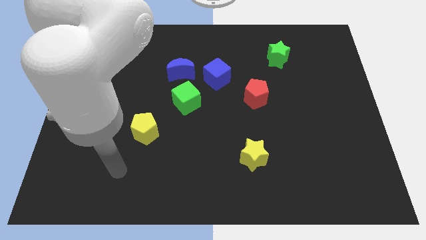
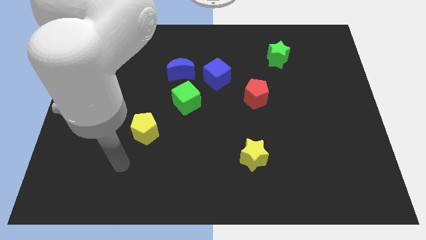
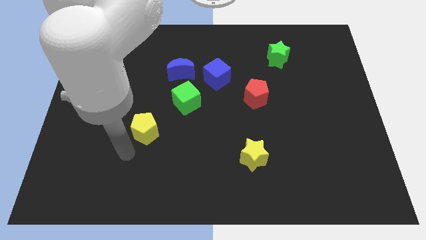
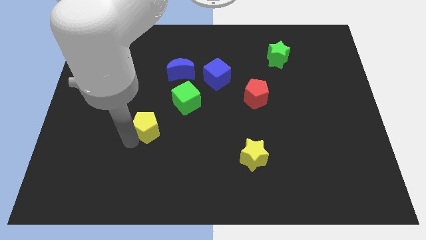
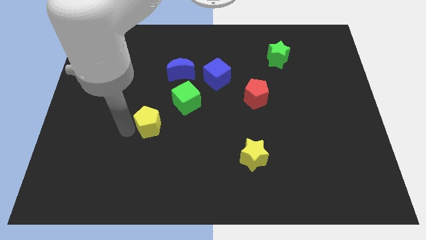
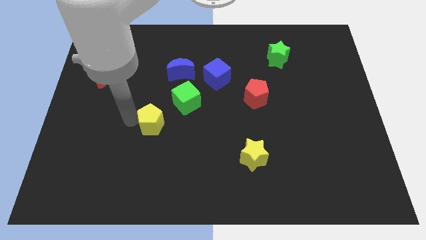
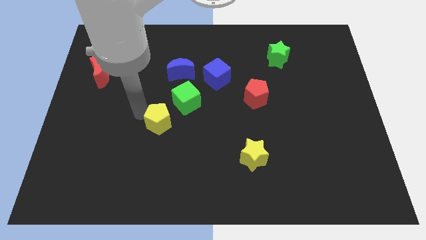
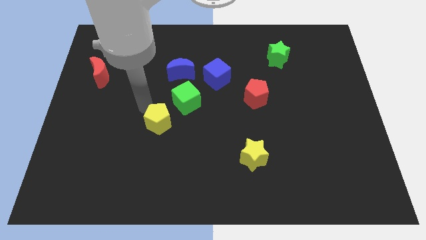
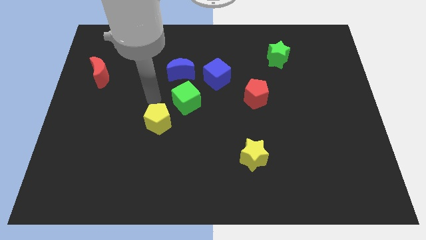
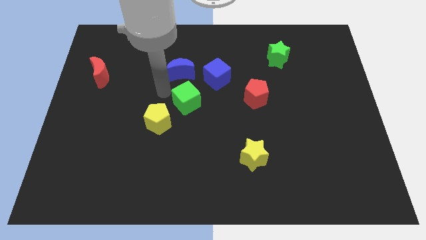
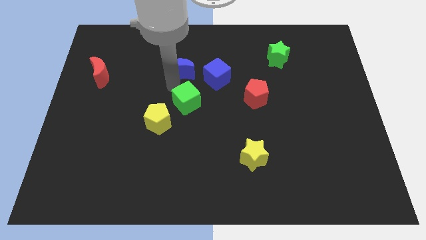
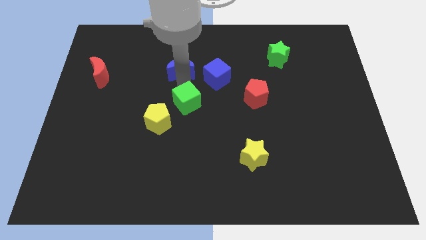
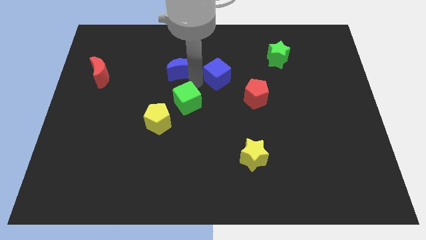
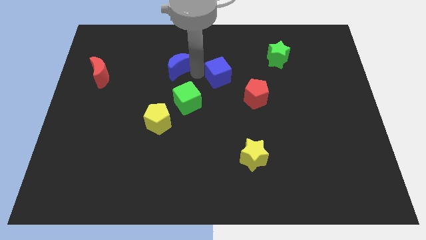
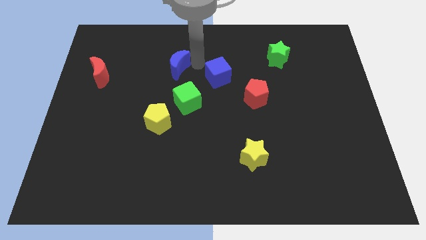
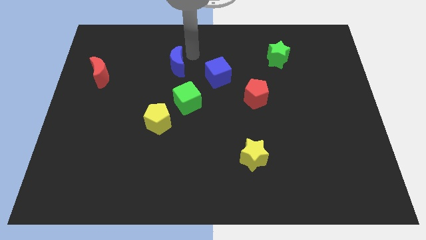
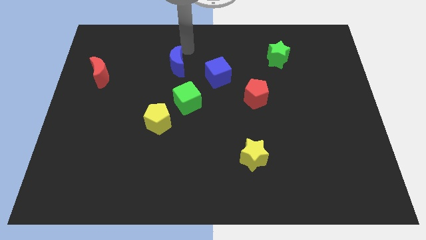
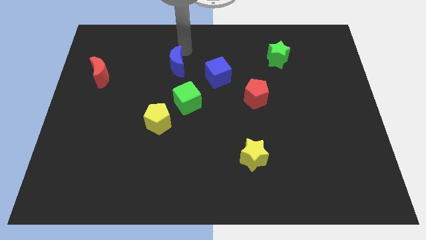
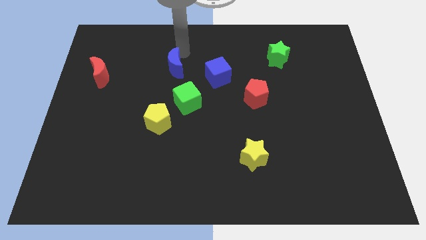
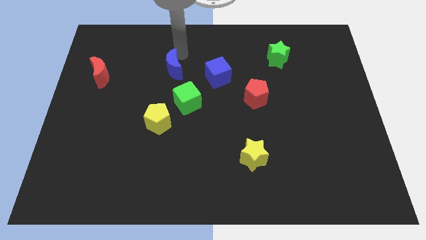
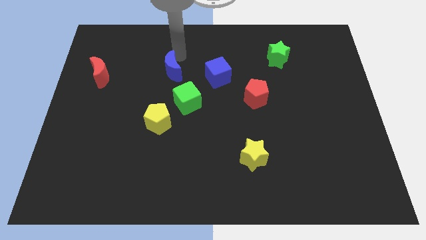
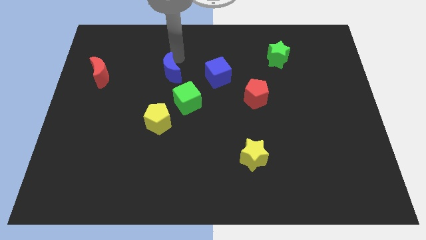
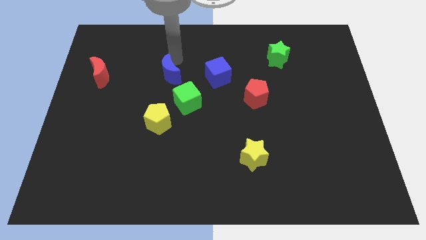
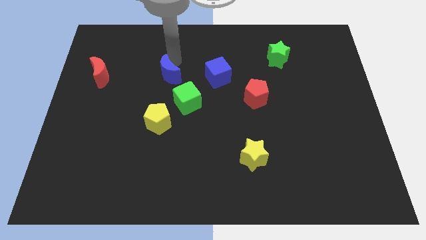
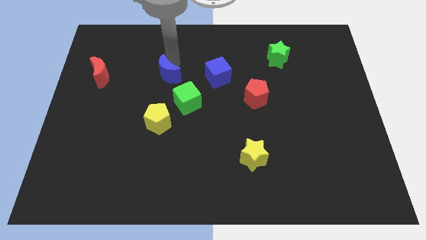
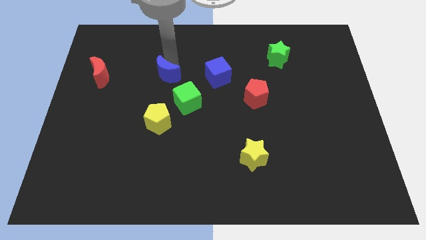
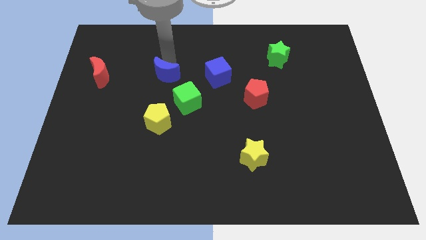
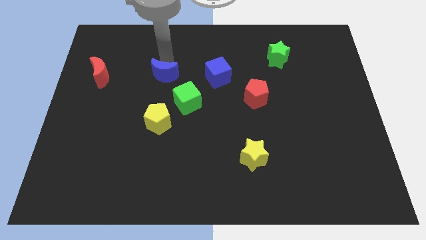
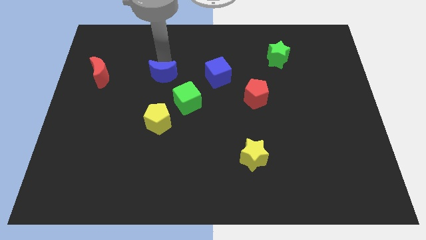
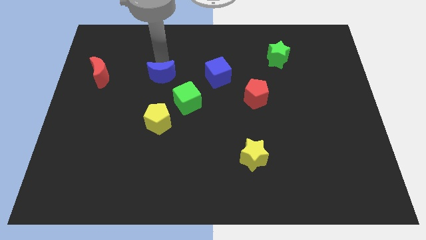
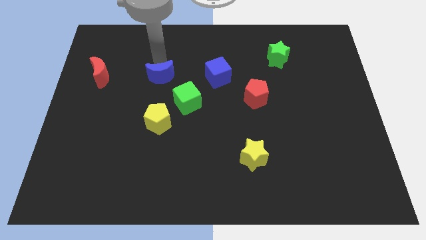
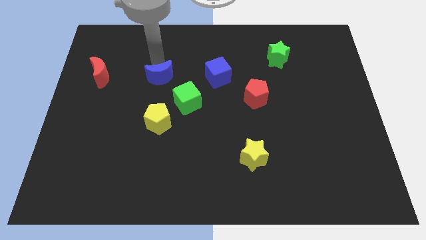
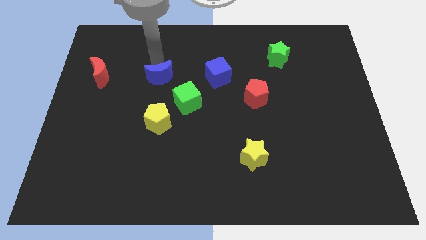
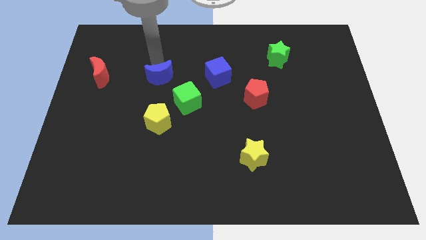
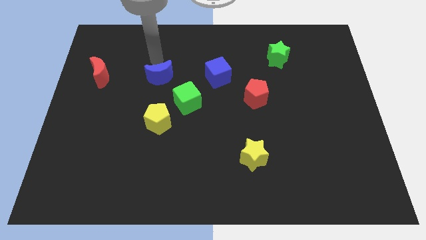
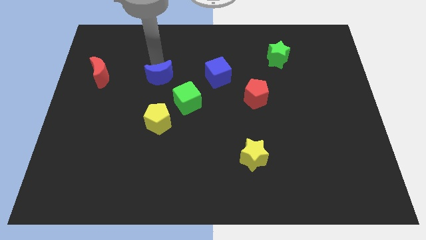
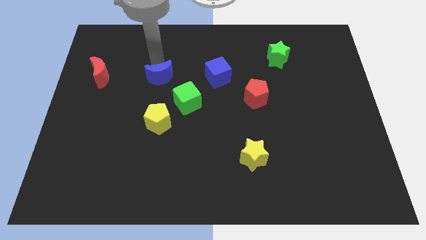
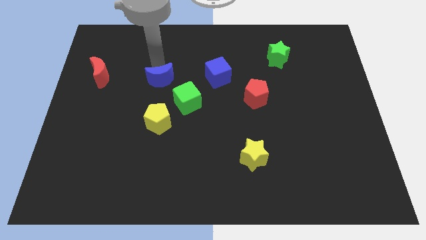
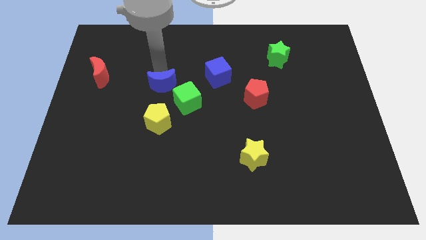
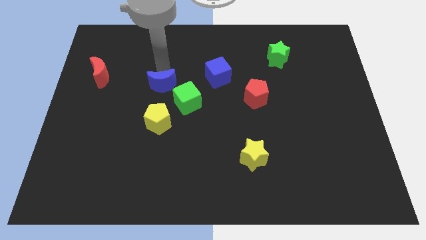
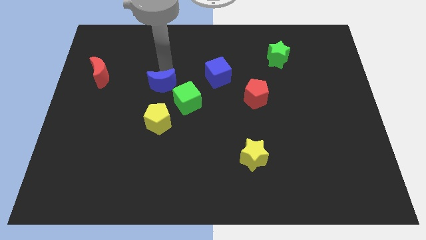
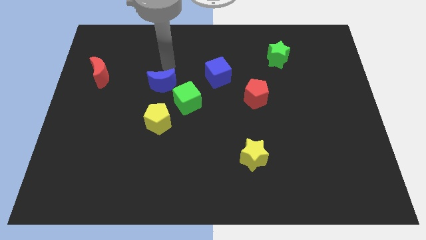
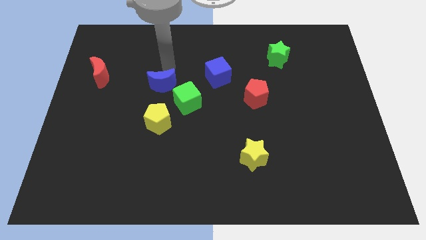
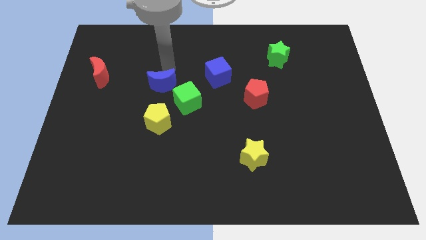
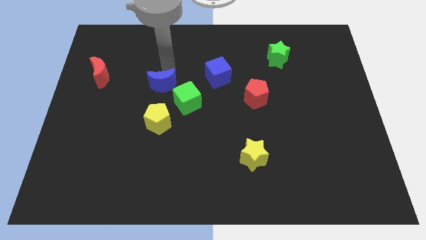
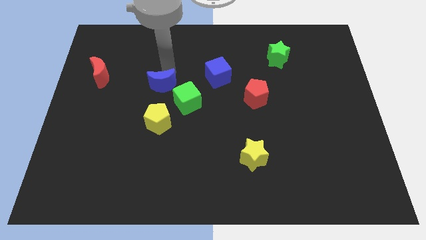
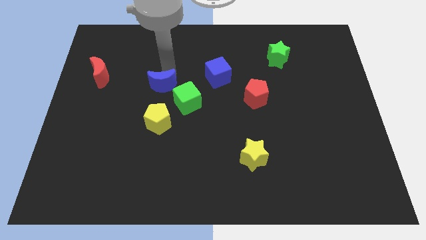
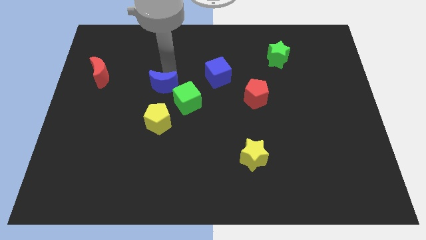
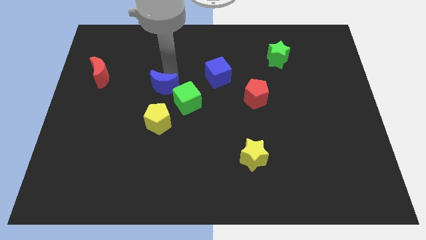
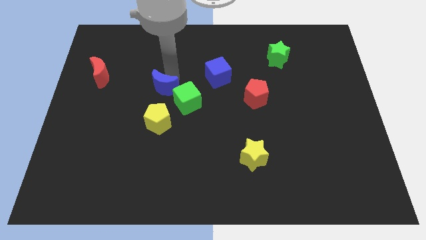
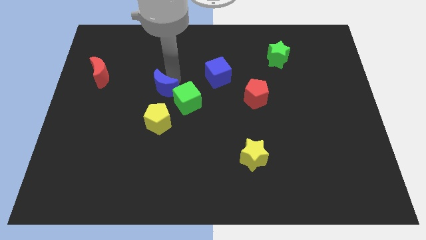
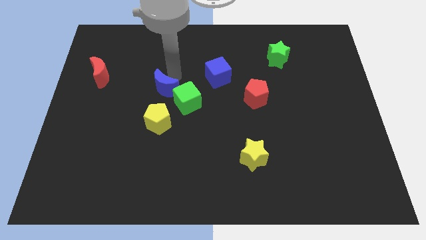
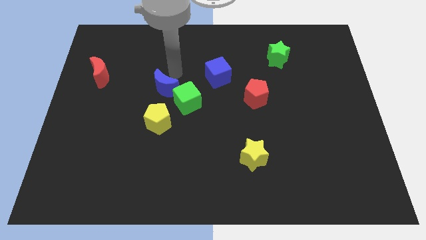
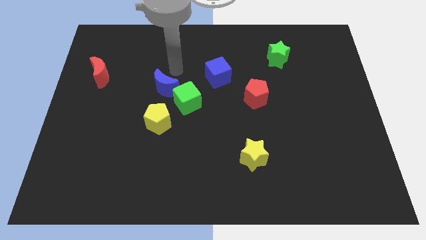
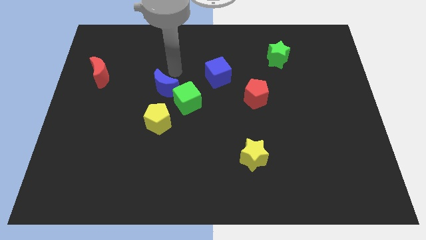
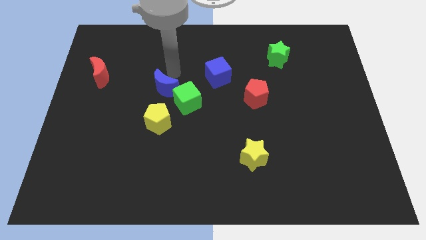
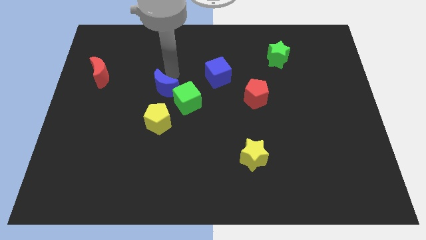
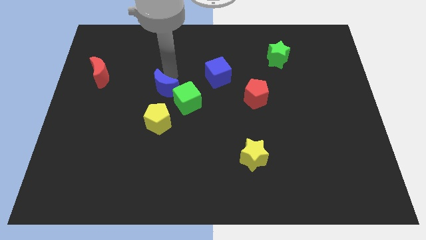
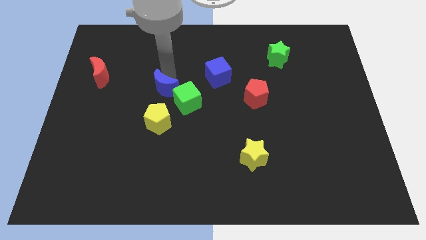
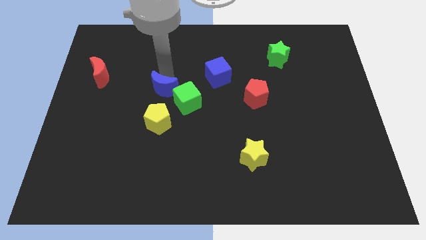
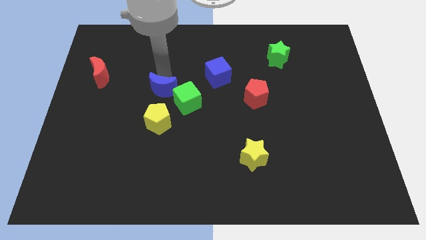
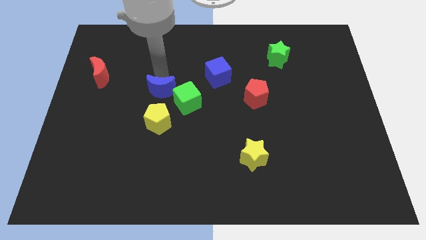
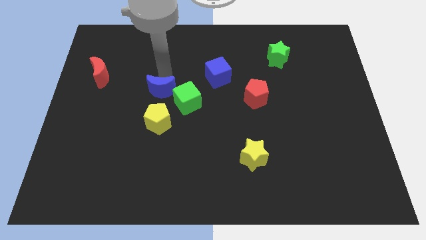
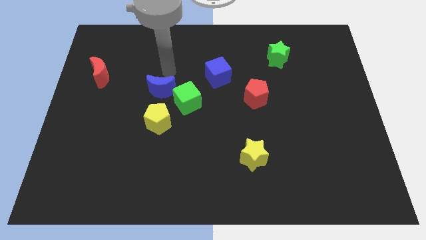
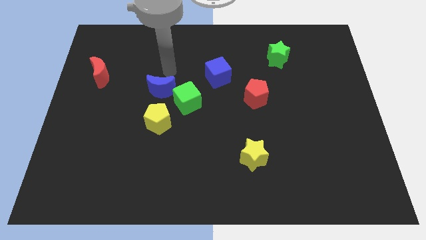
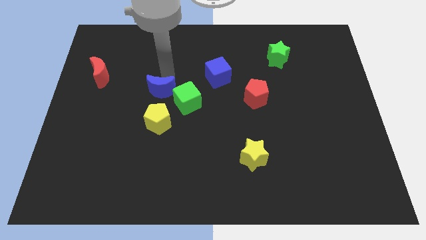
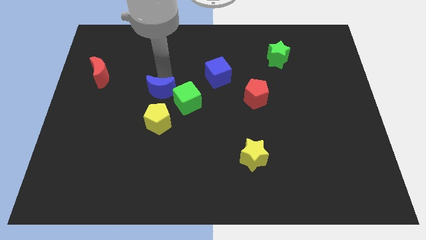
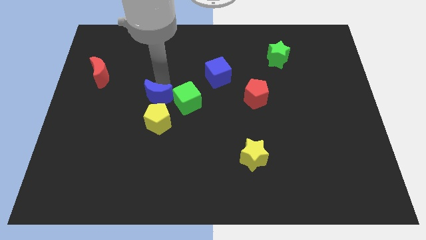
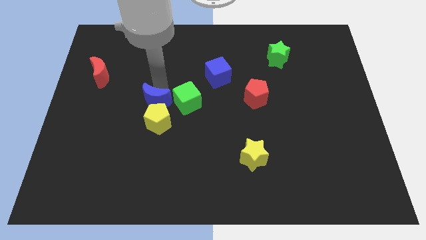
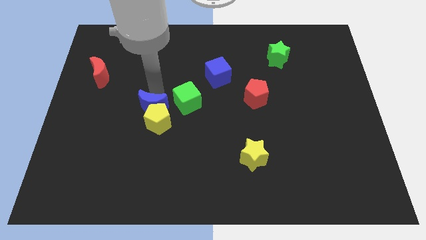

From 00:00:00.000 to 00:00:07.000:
move the blue moon towards the yellow pentagon

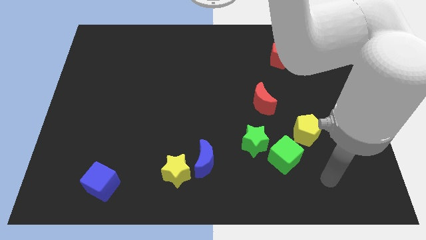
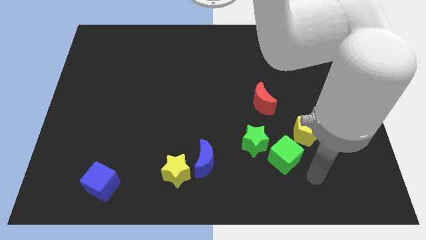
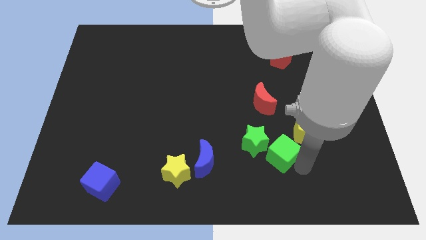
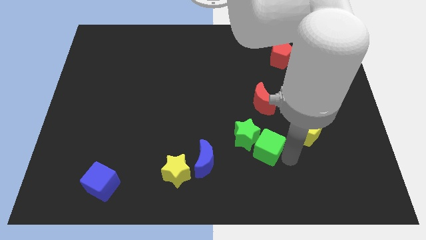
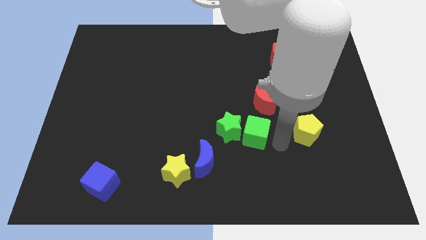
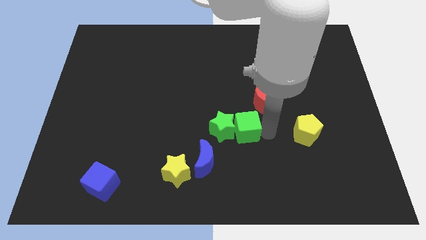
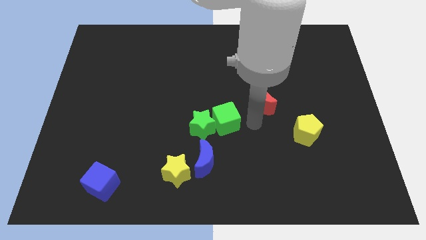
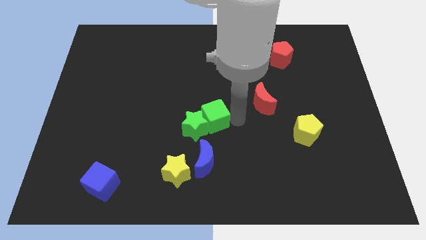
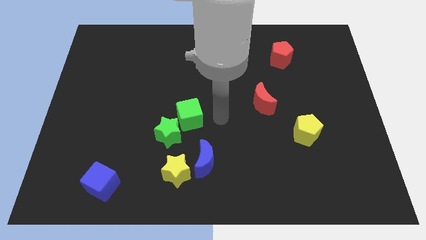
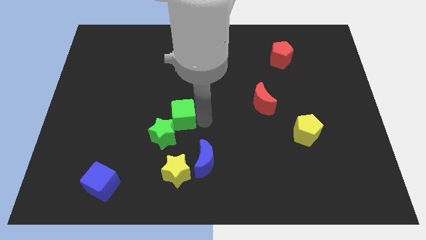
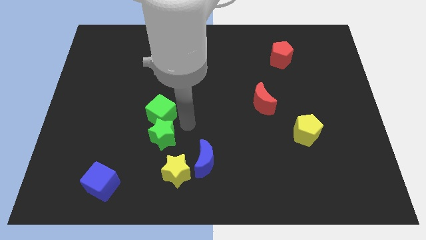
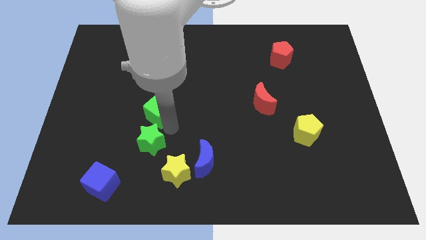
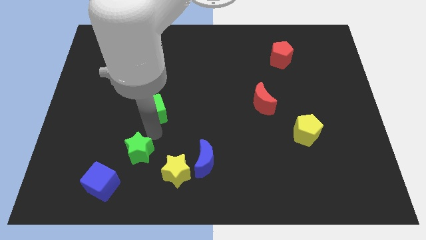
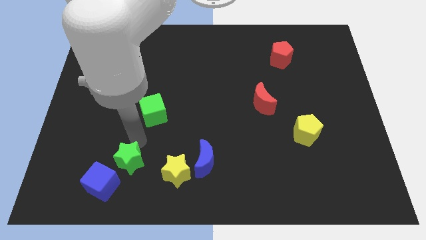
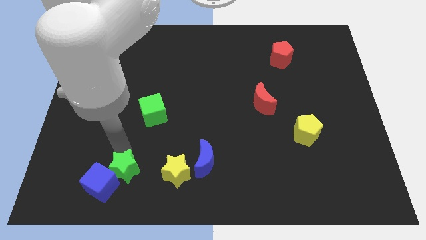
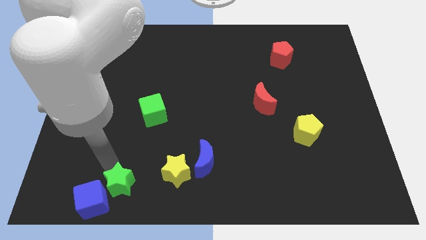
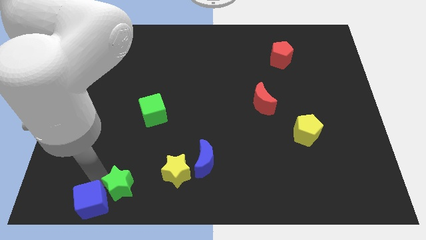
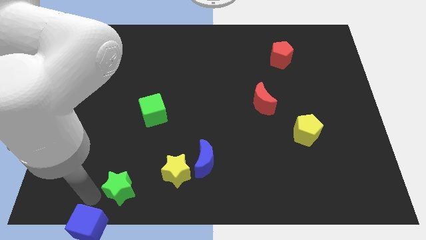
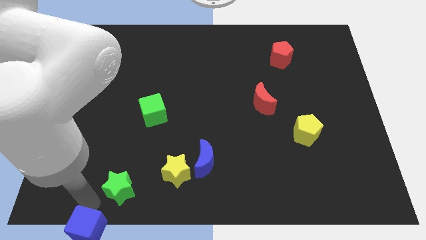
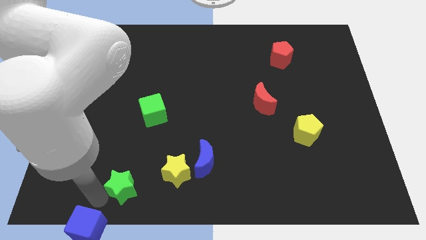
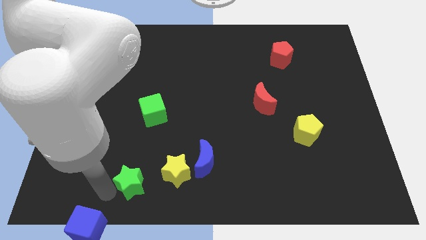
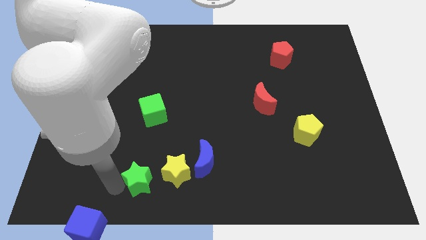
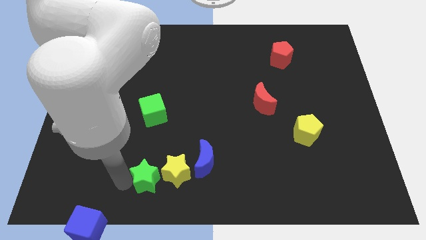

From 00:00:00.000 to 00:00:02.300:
push the green star next to the yellow star
